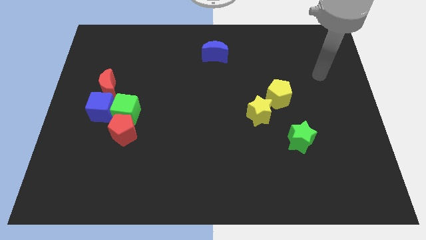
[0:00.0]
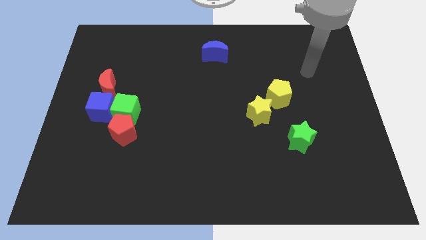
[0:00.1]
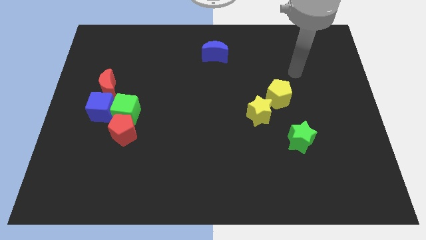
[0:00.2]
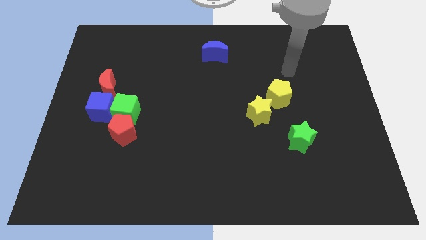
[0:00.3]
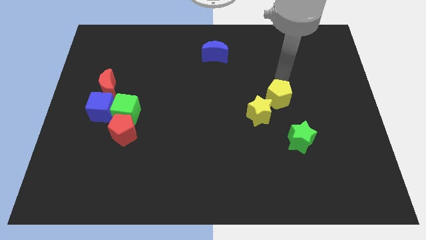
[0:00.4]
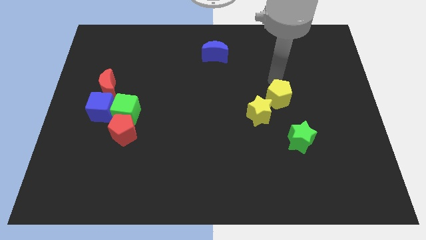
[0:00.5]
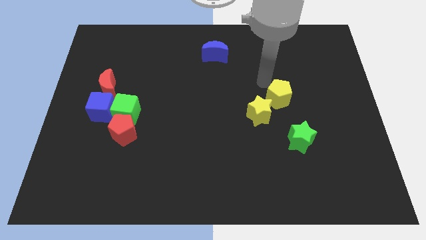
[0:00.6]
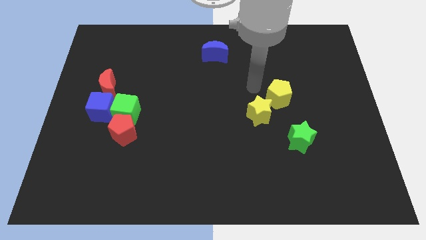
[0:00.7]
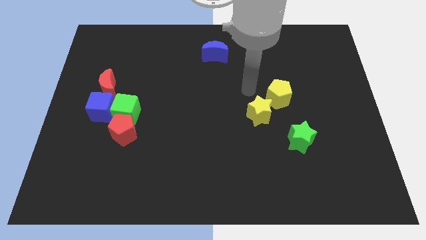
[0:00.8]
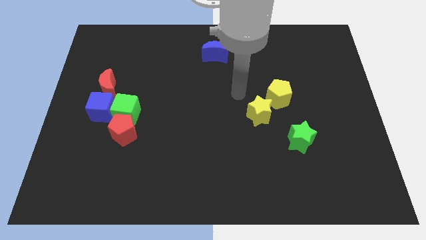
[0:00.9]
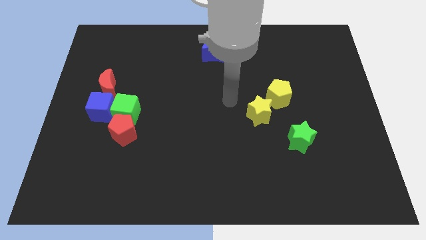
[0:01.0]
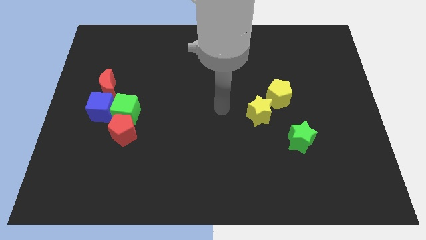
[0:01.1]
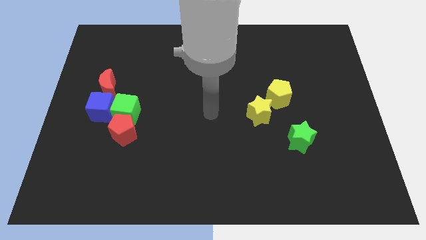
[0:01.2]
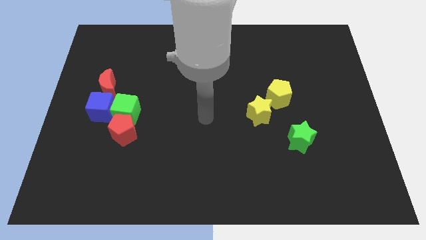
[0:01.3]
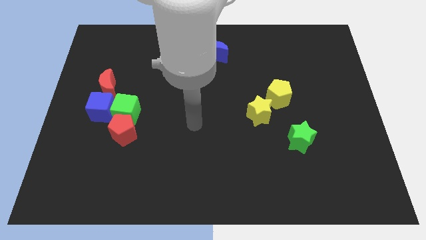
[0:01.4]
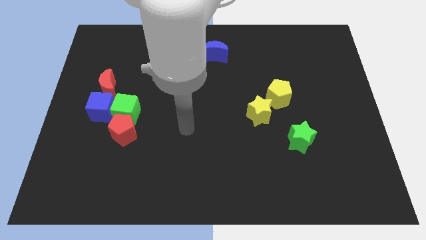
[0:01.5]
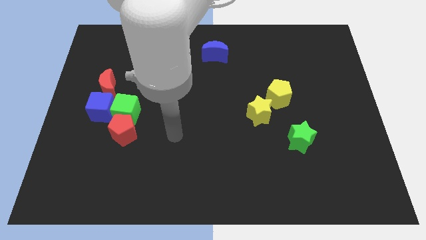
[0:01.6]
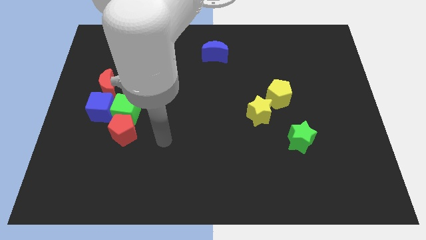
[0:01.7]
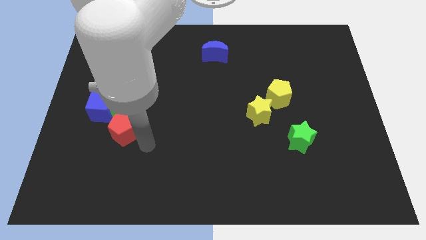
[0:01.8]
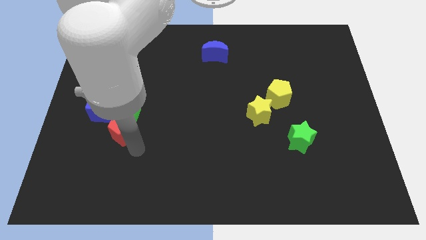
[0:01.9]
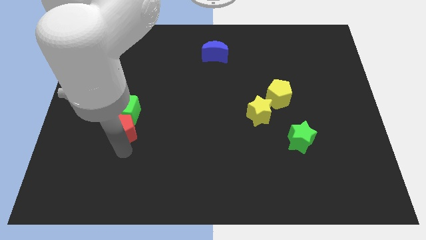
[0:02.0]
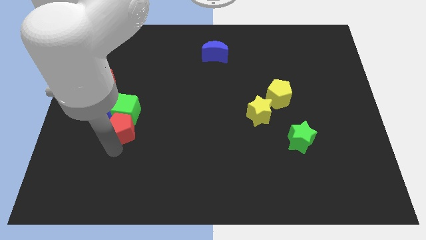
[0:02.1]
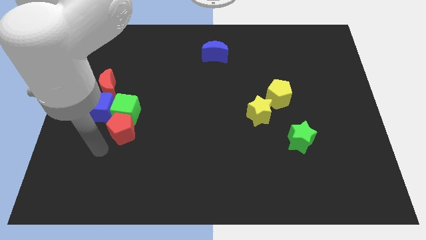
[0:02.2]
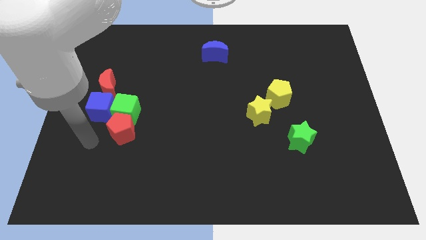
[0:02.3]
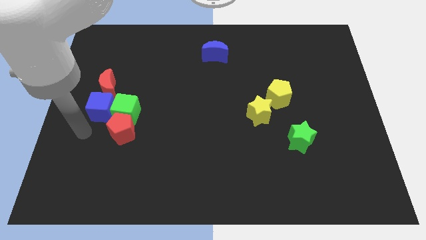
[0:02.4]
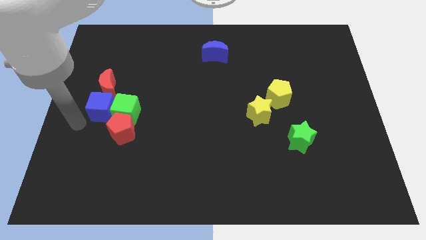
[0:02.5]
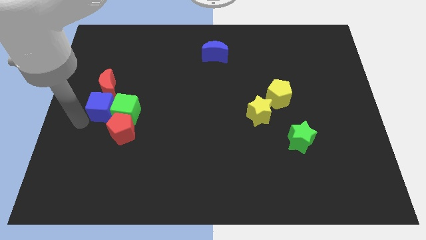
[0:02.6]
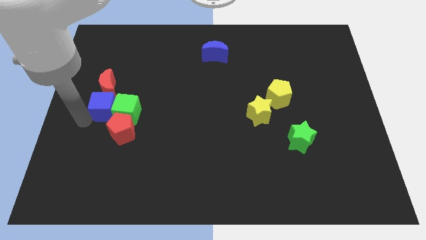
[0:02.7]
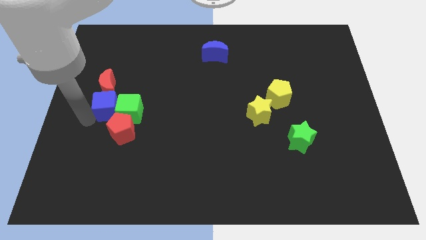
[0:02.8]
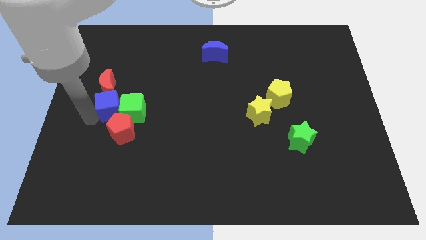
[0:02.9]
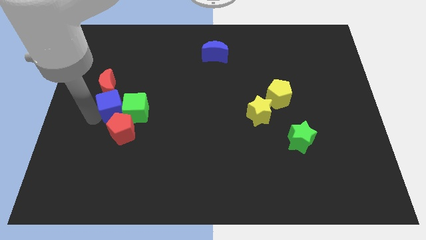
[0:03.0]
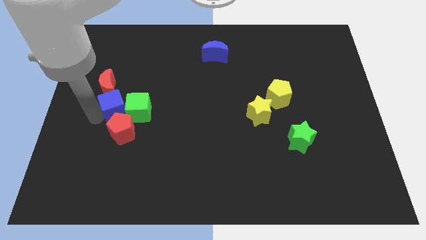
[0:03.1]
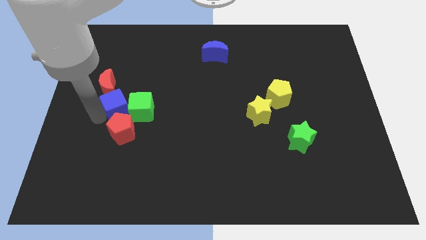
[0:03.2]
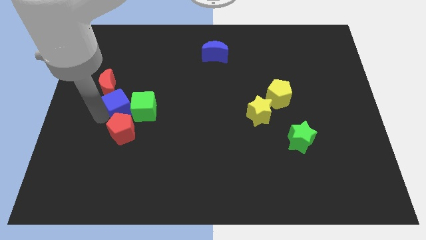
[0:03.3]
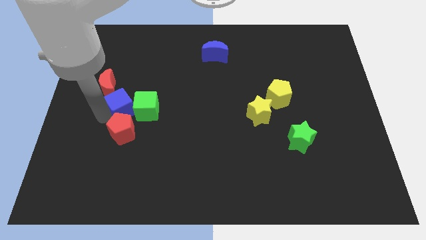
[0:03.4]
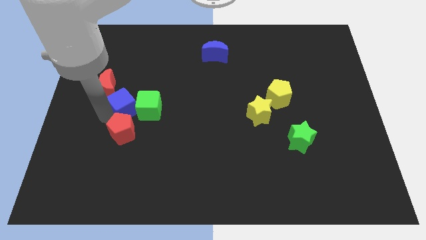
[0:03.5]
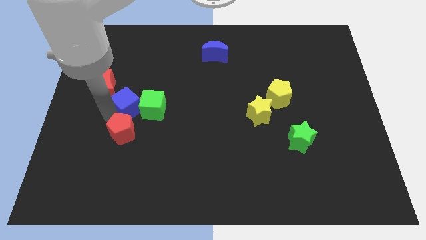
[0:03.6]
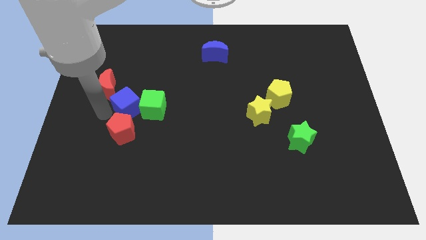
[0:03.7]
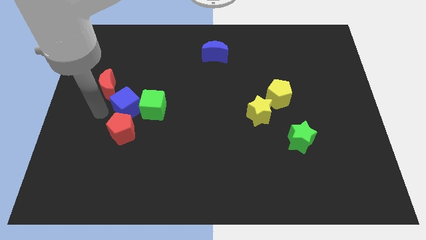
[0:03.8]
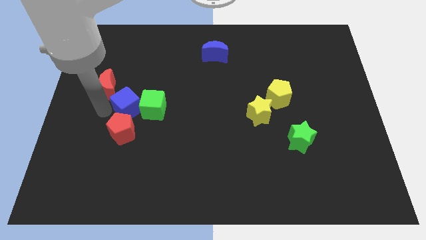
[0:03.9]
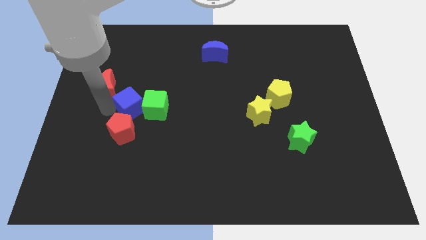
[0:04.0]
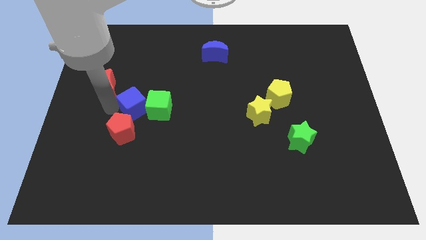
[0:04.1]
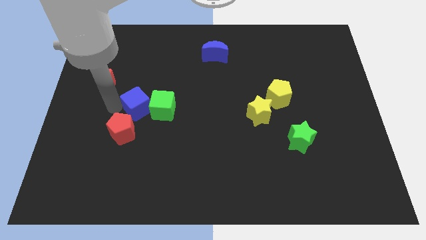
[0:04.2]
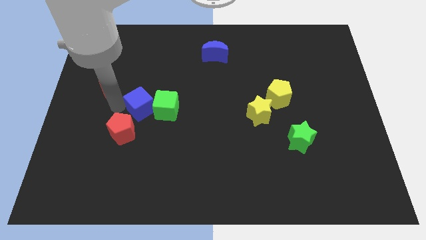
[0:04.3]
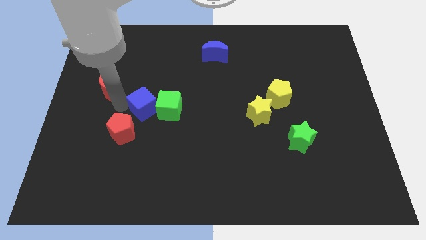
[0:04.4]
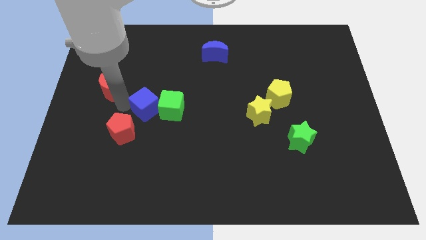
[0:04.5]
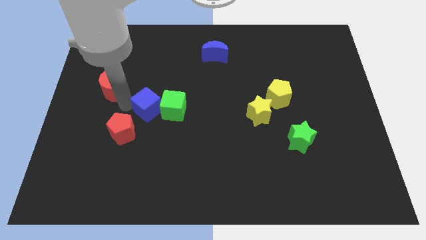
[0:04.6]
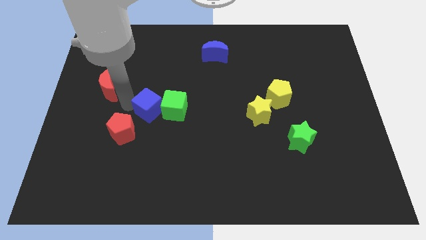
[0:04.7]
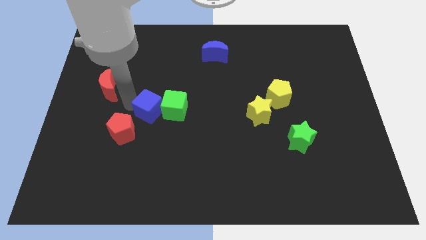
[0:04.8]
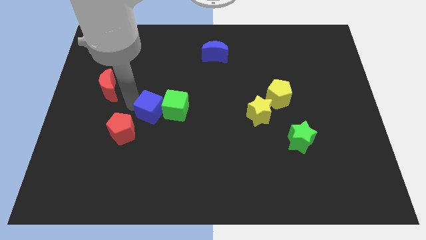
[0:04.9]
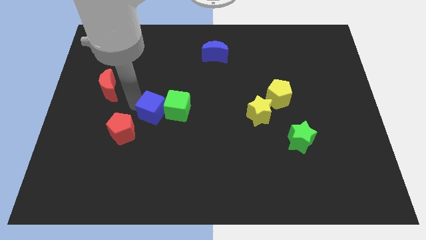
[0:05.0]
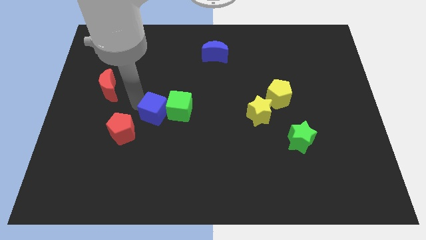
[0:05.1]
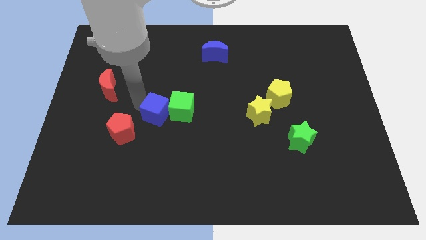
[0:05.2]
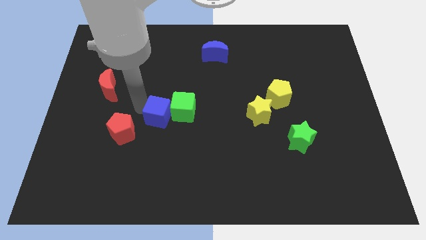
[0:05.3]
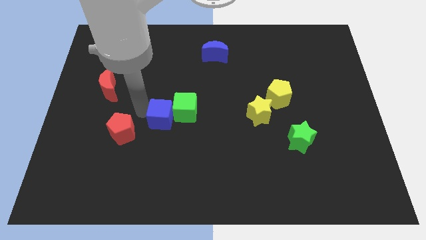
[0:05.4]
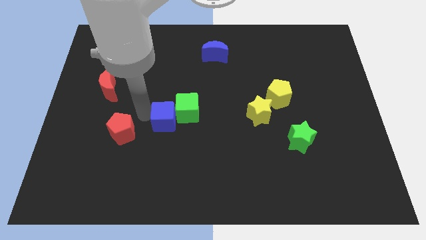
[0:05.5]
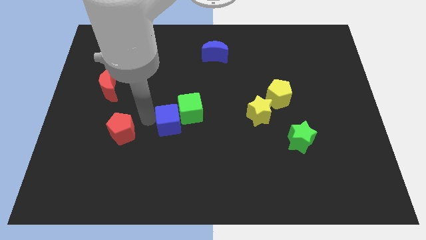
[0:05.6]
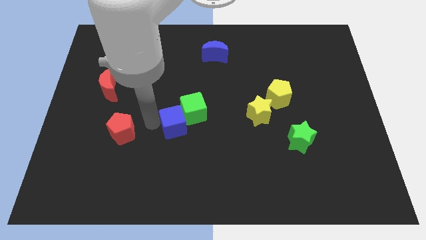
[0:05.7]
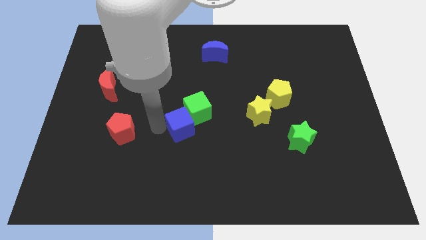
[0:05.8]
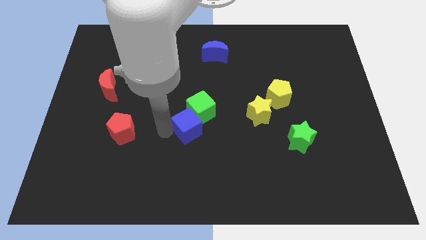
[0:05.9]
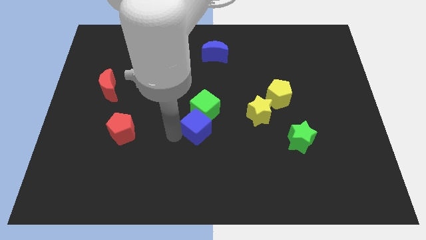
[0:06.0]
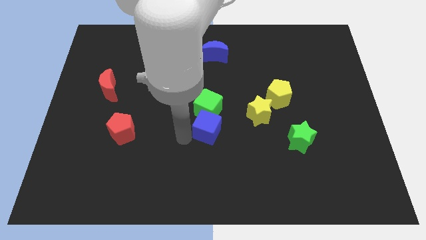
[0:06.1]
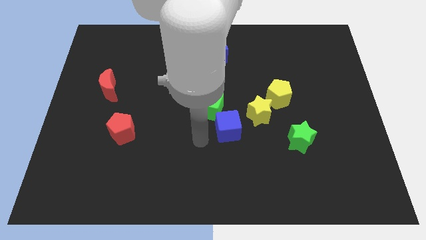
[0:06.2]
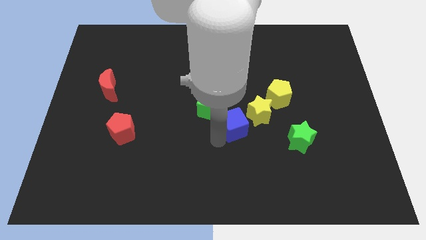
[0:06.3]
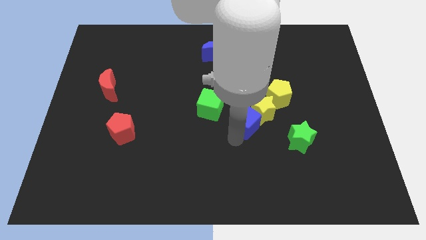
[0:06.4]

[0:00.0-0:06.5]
slide the blue cube to the yellow star
